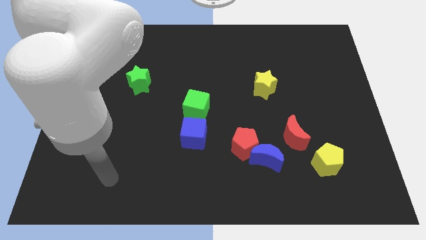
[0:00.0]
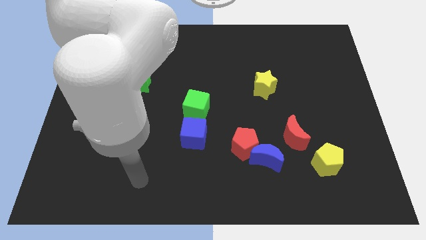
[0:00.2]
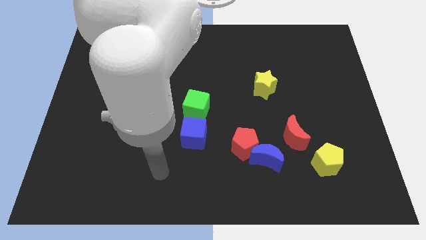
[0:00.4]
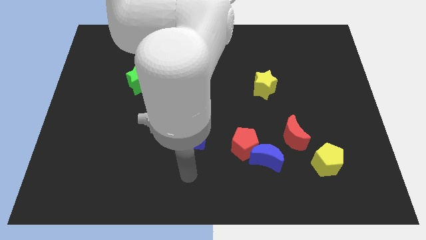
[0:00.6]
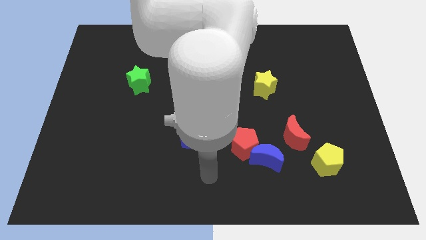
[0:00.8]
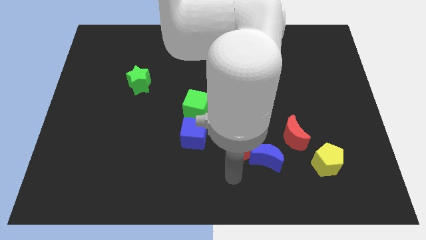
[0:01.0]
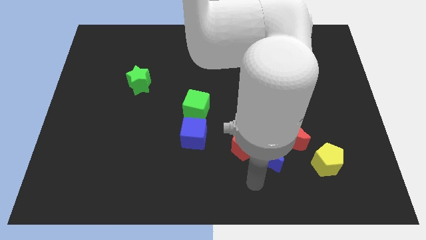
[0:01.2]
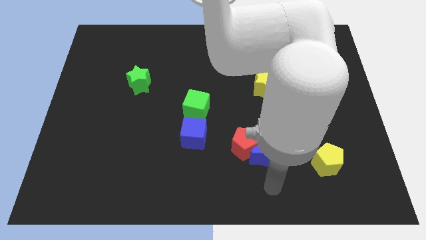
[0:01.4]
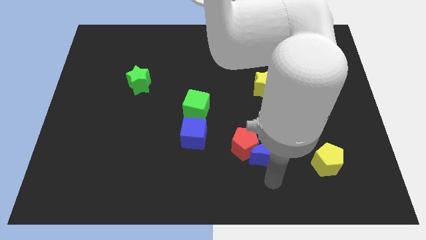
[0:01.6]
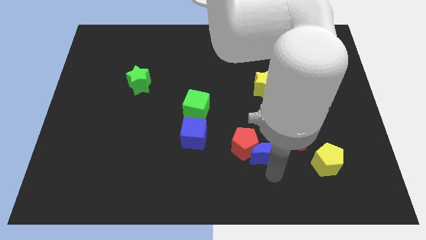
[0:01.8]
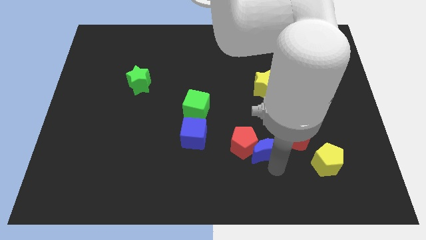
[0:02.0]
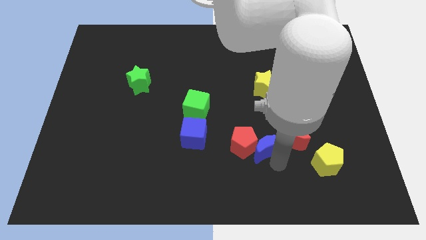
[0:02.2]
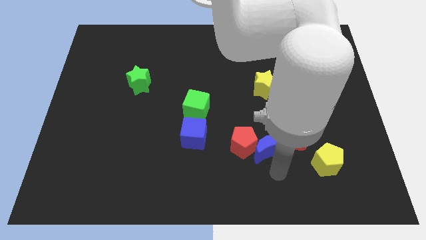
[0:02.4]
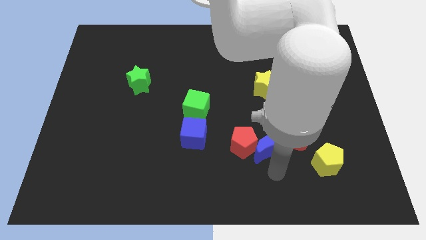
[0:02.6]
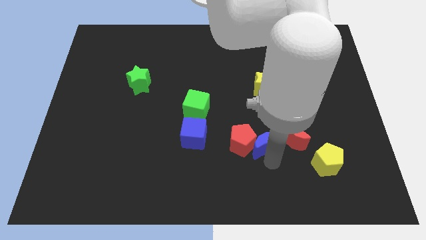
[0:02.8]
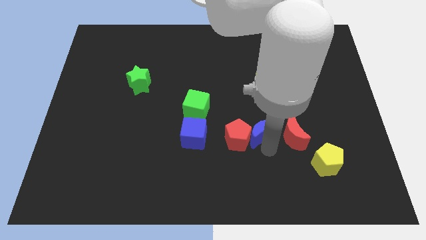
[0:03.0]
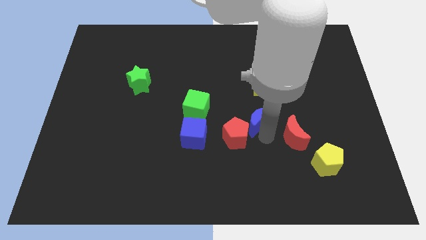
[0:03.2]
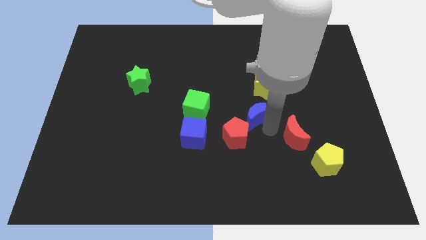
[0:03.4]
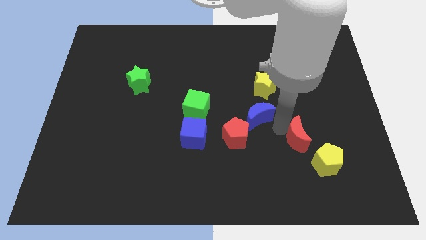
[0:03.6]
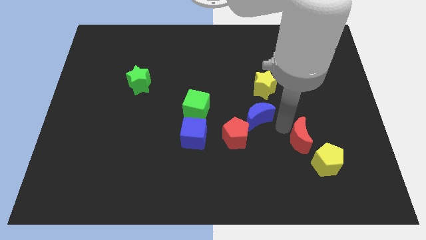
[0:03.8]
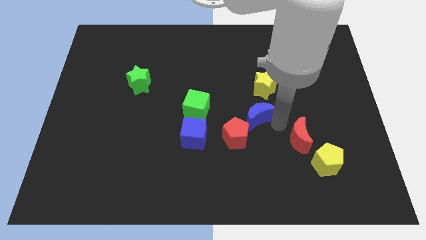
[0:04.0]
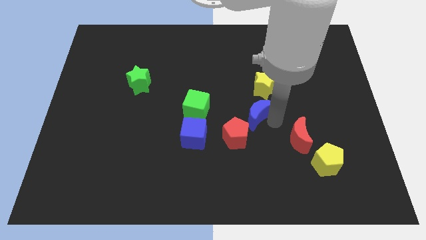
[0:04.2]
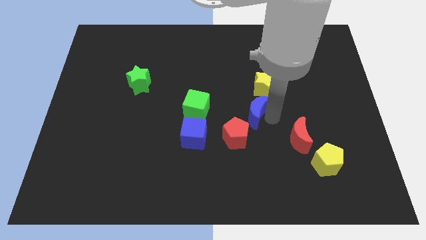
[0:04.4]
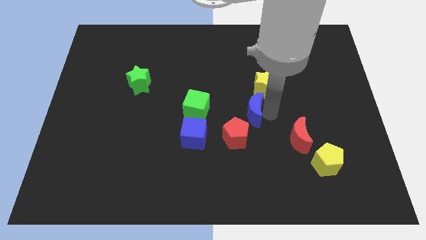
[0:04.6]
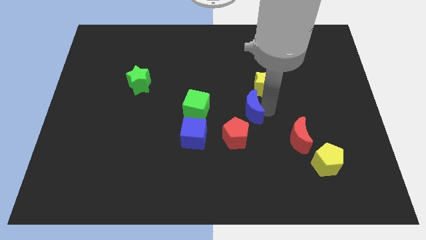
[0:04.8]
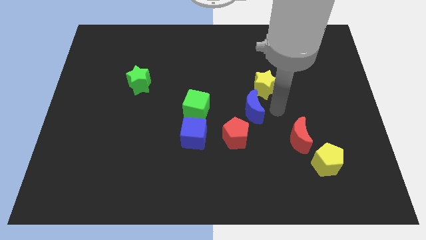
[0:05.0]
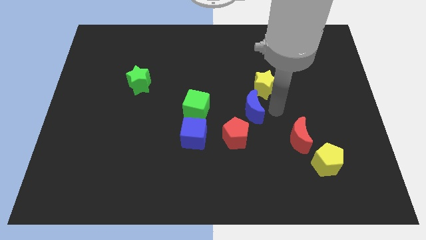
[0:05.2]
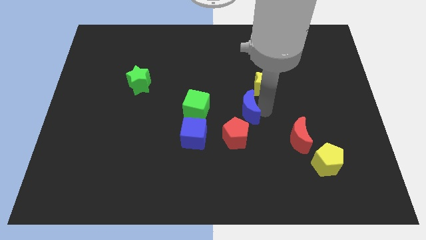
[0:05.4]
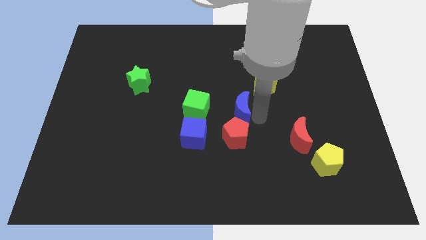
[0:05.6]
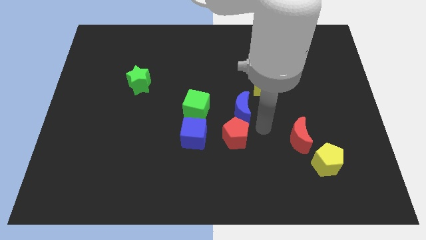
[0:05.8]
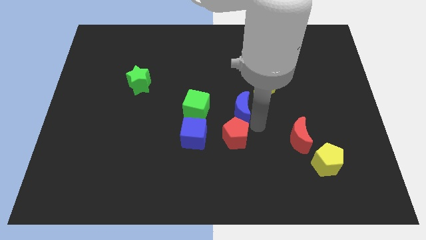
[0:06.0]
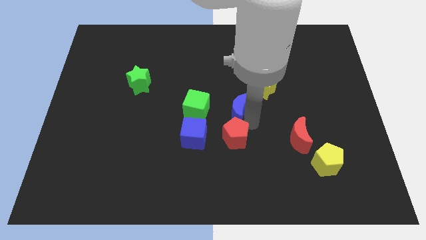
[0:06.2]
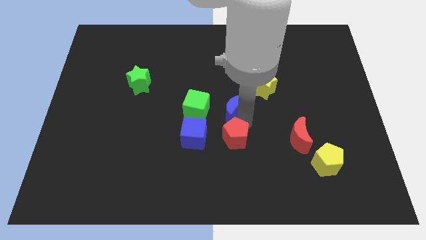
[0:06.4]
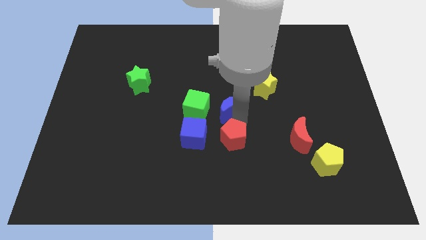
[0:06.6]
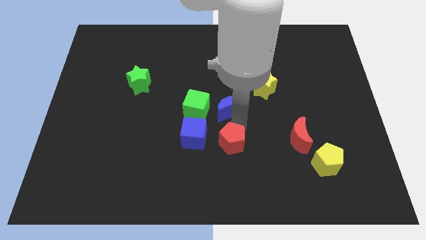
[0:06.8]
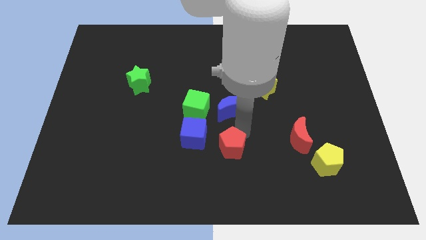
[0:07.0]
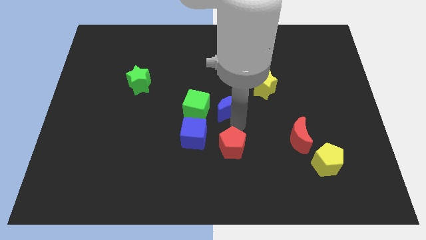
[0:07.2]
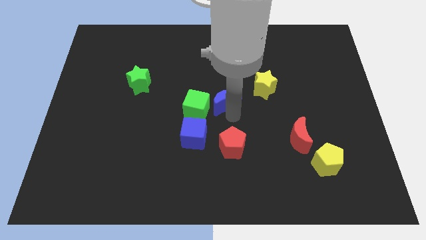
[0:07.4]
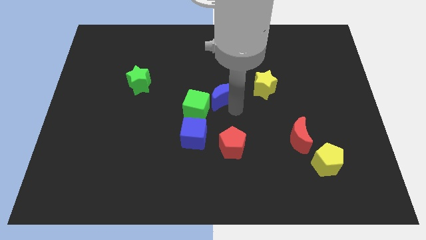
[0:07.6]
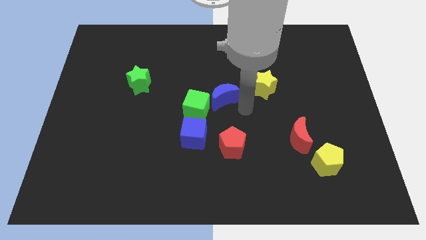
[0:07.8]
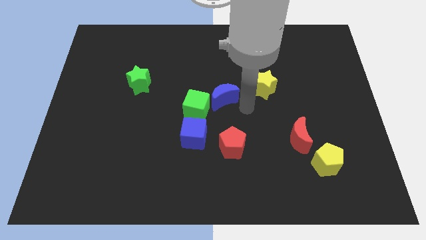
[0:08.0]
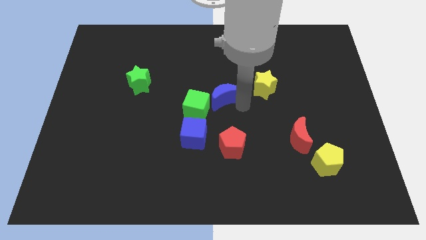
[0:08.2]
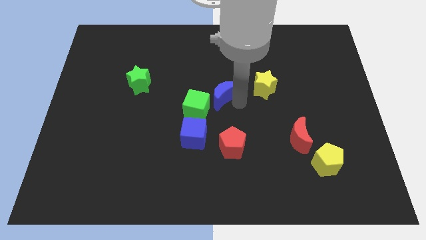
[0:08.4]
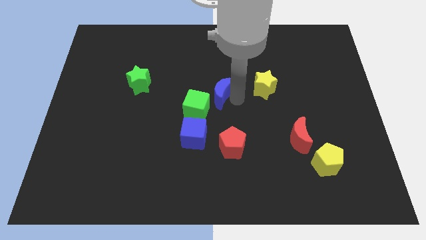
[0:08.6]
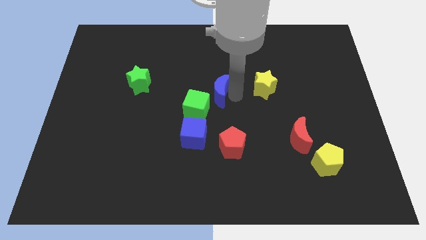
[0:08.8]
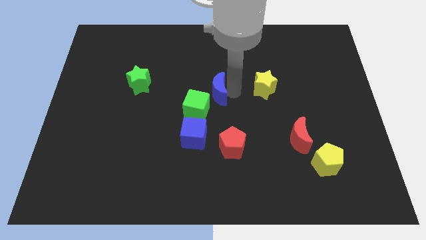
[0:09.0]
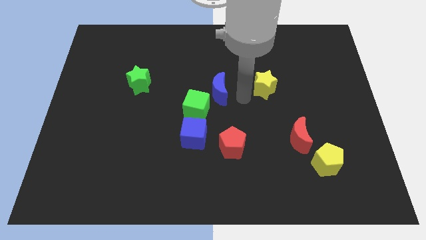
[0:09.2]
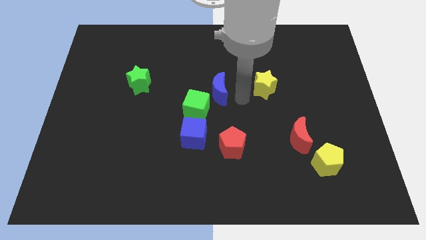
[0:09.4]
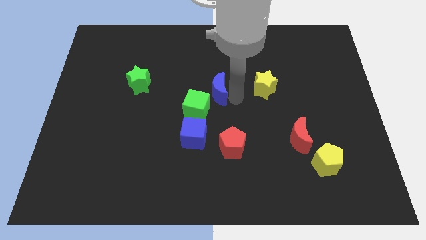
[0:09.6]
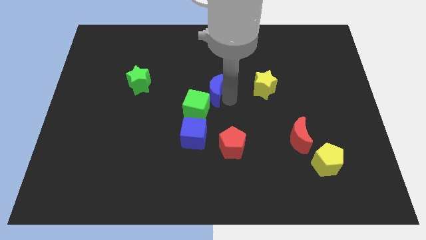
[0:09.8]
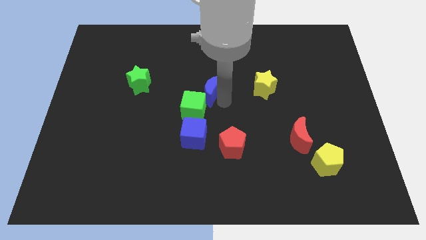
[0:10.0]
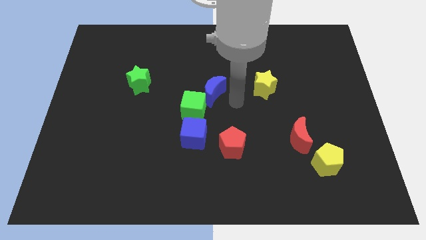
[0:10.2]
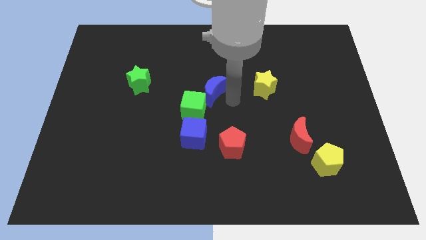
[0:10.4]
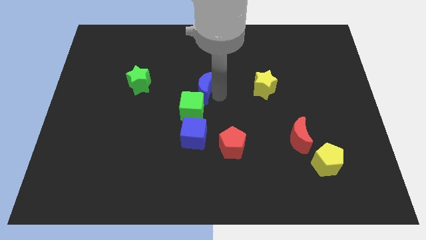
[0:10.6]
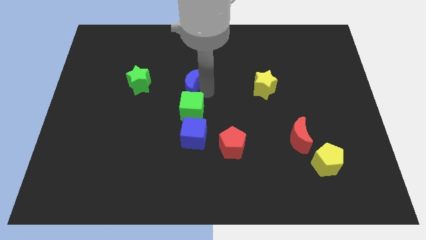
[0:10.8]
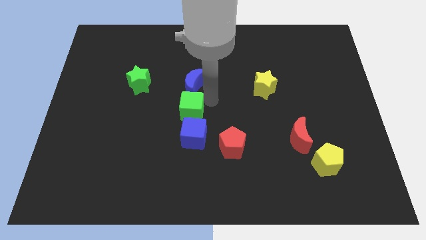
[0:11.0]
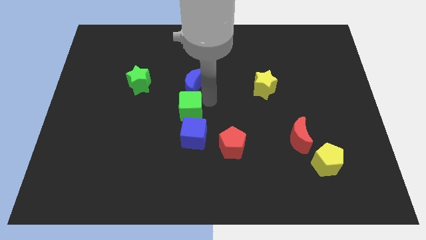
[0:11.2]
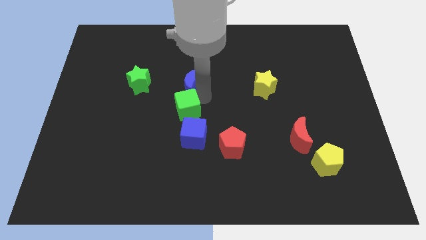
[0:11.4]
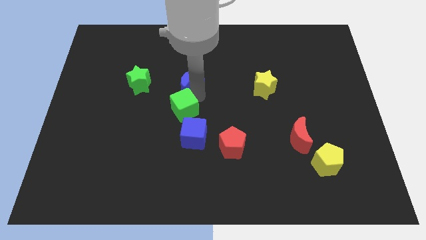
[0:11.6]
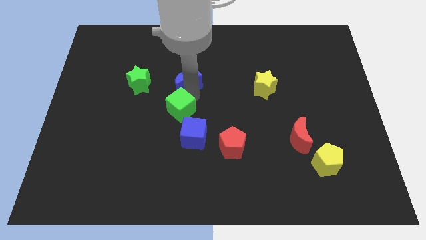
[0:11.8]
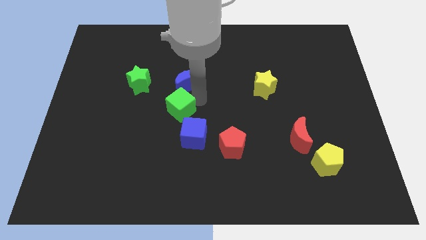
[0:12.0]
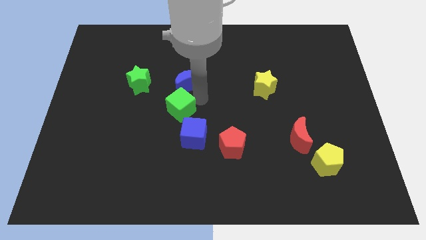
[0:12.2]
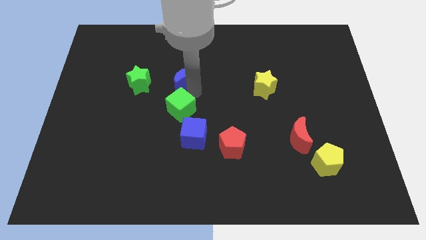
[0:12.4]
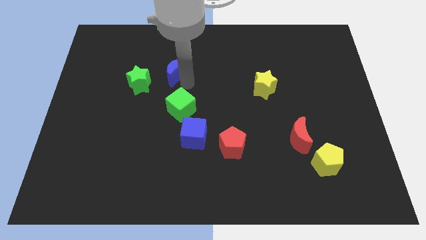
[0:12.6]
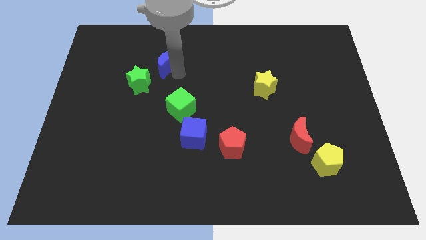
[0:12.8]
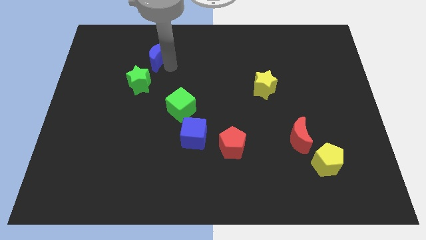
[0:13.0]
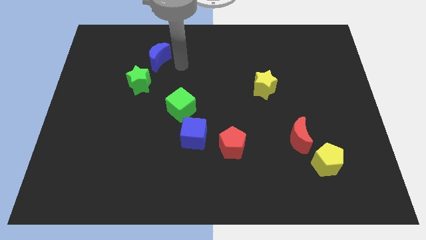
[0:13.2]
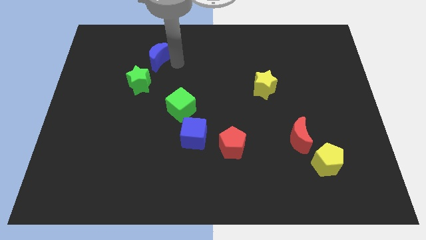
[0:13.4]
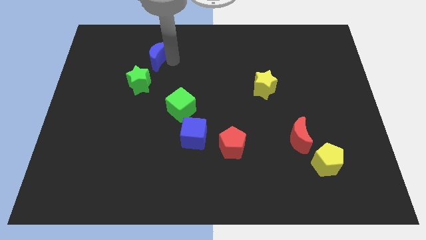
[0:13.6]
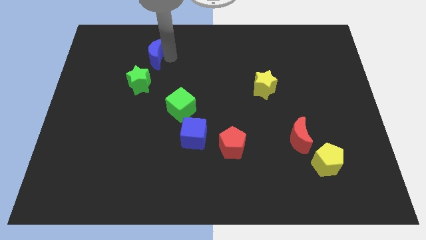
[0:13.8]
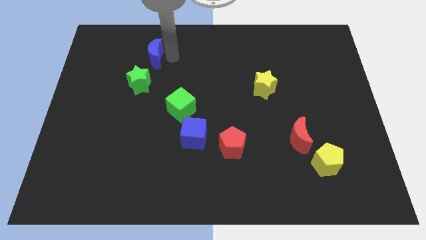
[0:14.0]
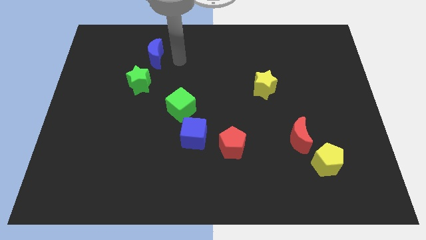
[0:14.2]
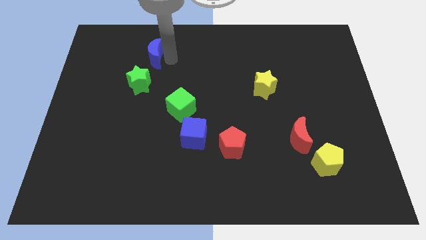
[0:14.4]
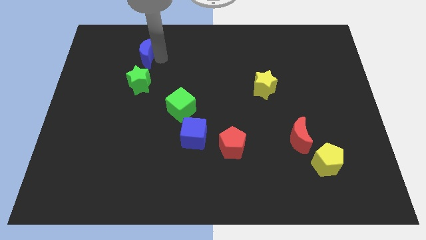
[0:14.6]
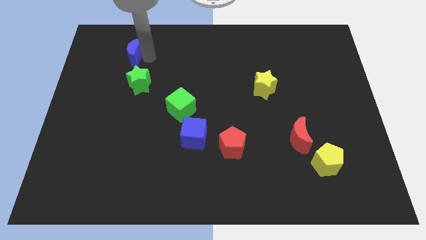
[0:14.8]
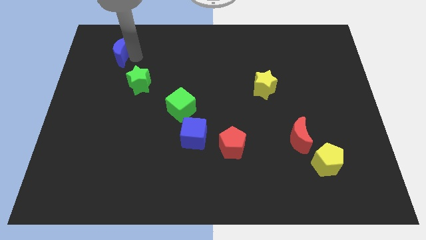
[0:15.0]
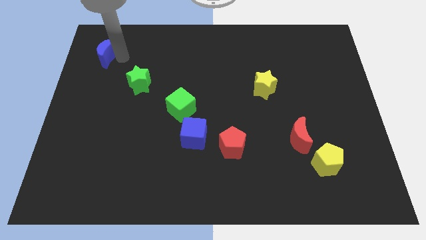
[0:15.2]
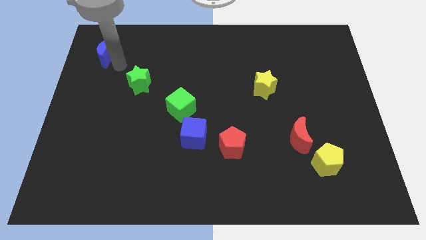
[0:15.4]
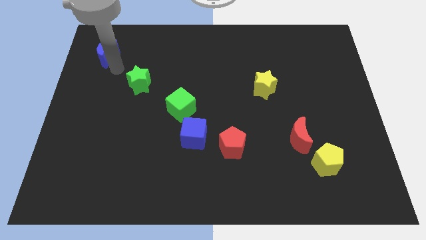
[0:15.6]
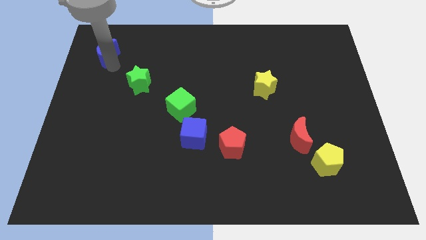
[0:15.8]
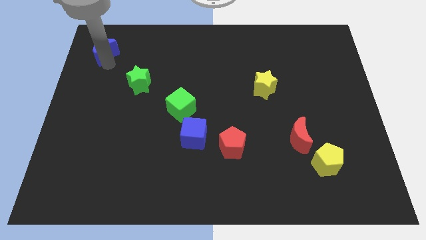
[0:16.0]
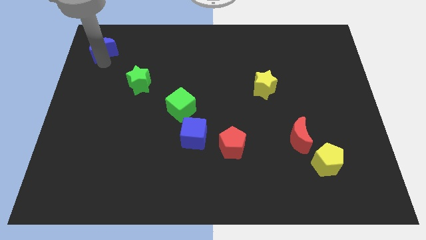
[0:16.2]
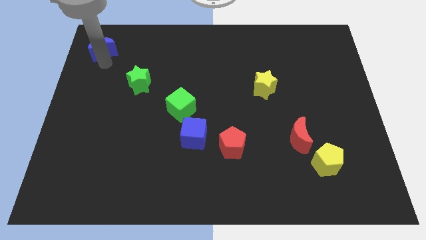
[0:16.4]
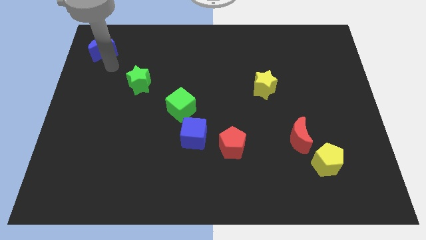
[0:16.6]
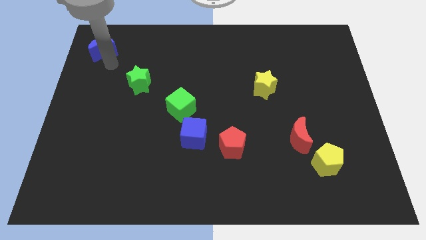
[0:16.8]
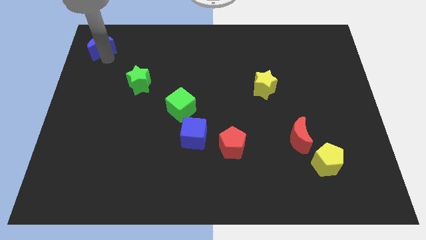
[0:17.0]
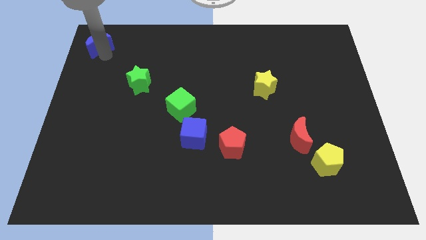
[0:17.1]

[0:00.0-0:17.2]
push the blue moon to the upper left corner
